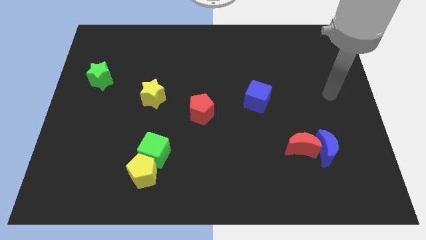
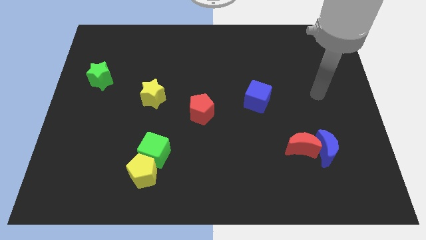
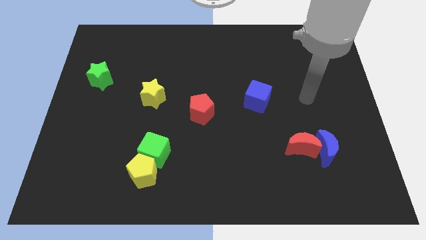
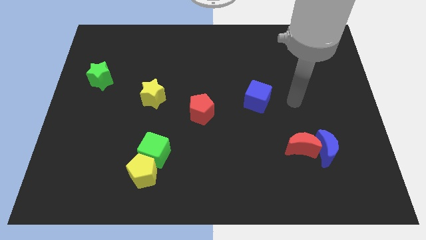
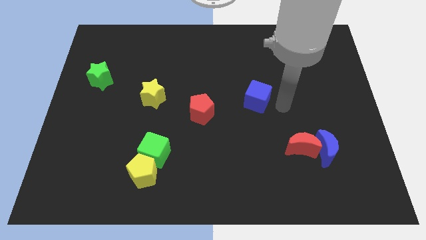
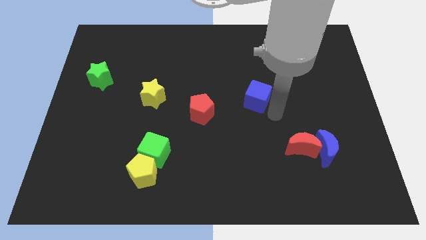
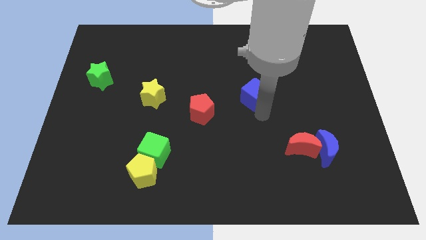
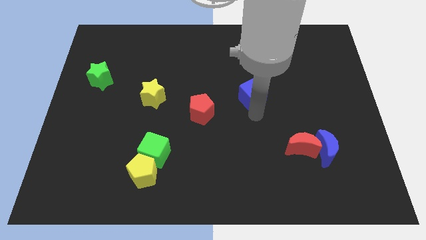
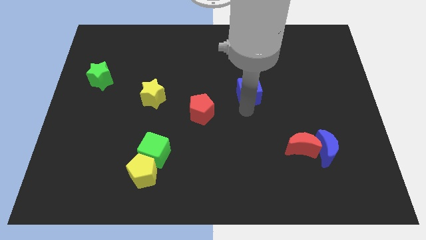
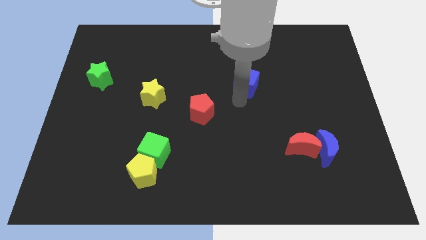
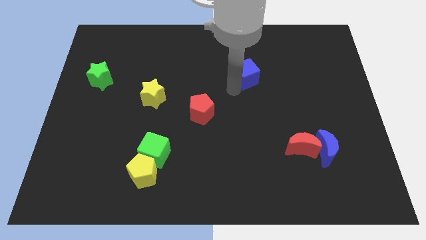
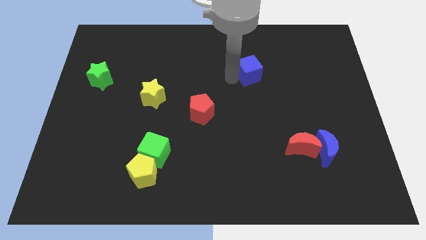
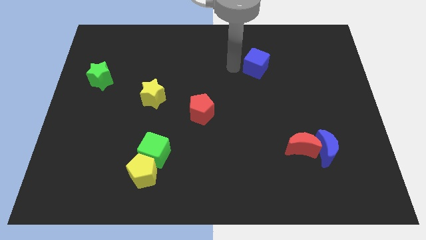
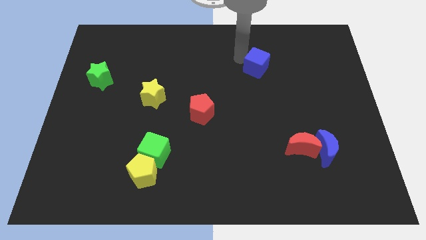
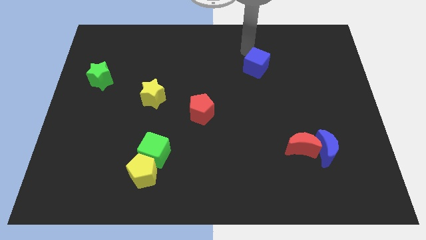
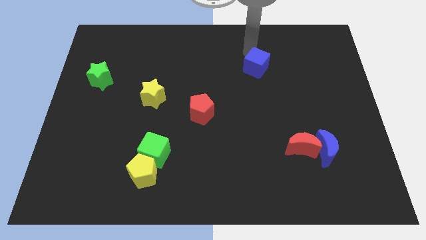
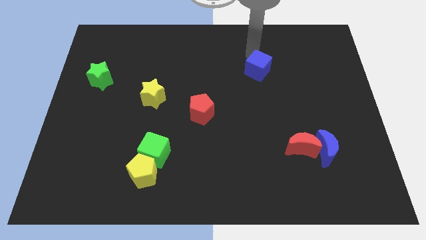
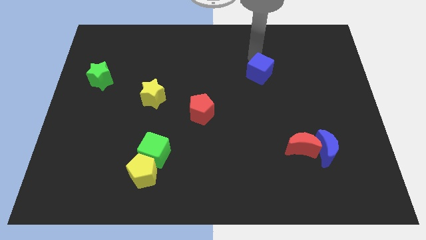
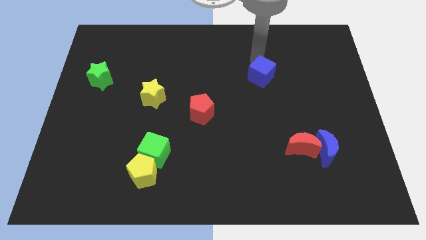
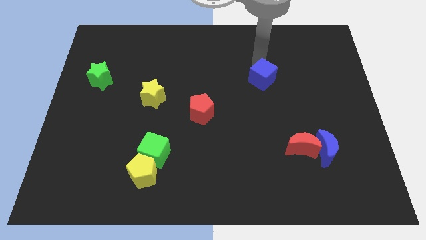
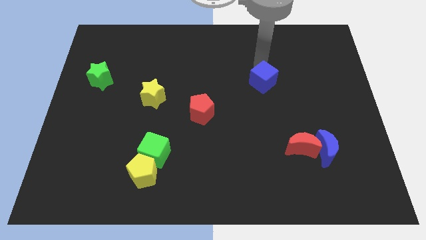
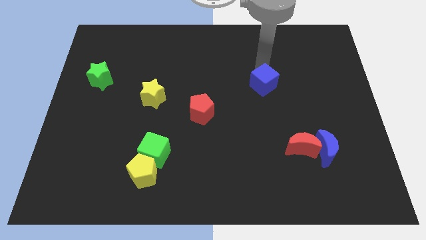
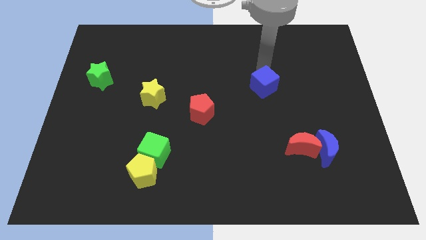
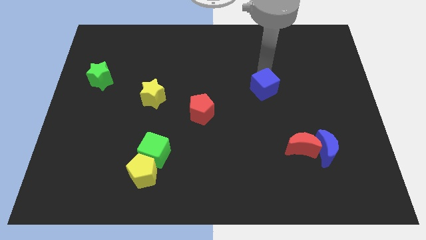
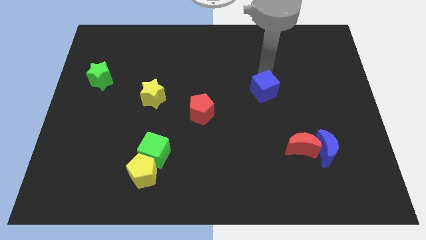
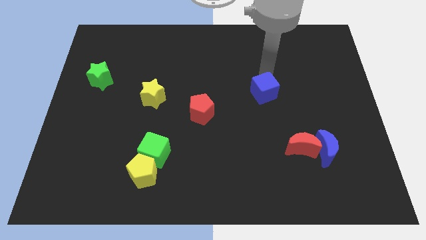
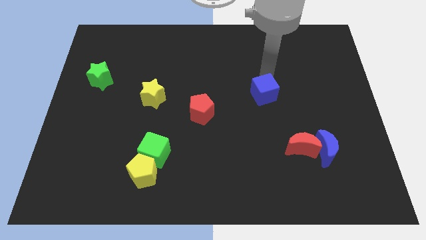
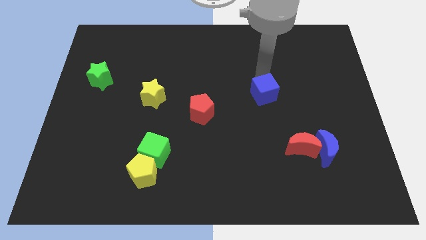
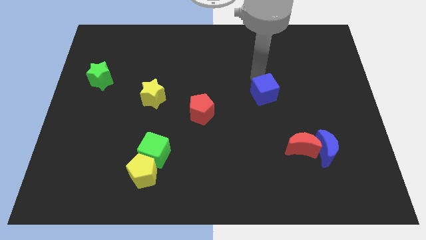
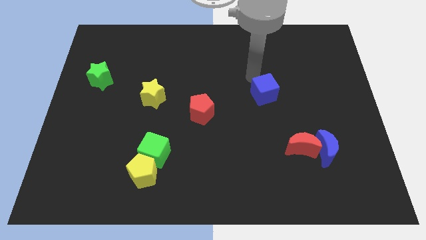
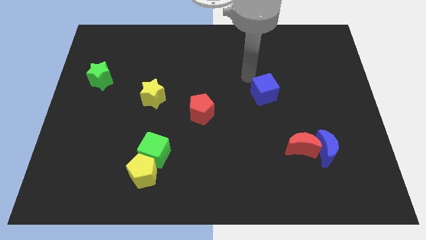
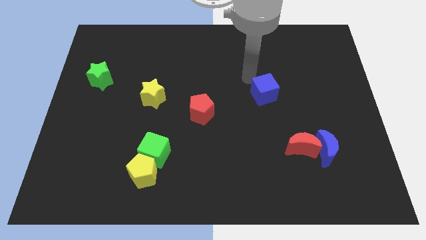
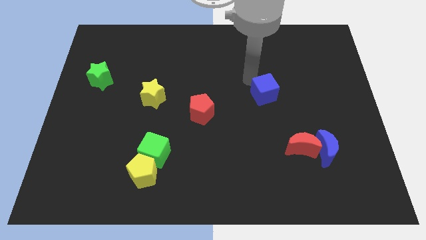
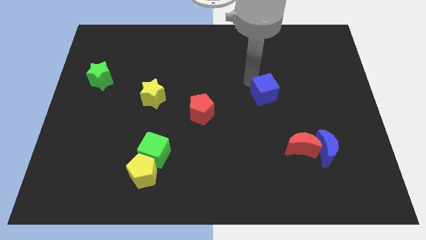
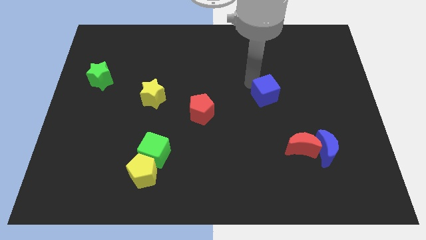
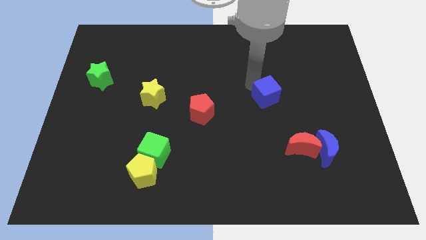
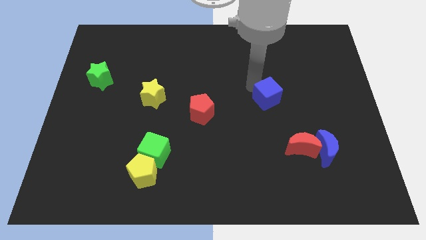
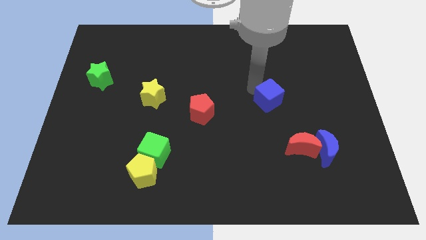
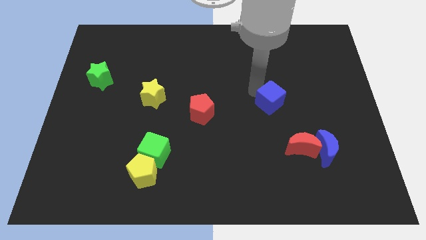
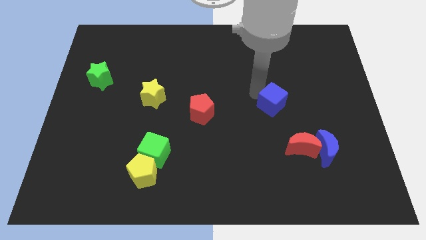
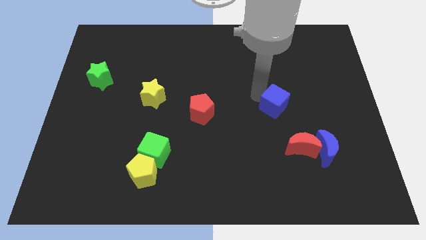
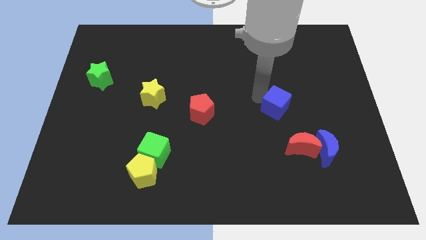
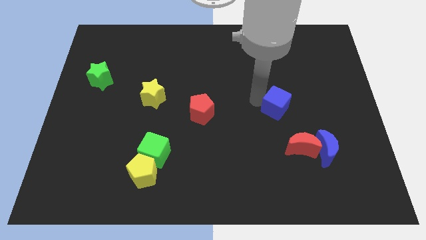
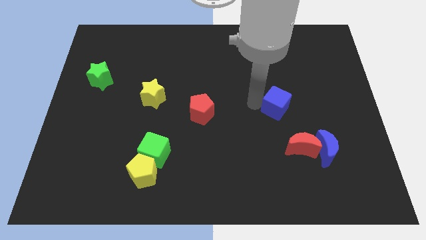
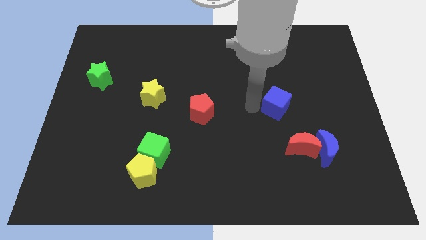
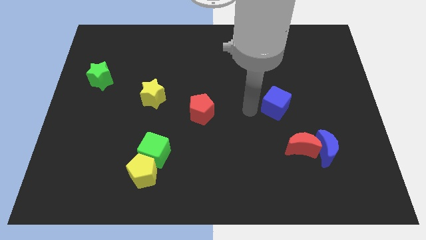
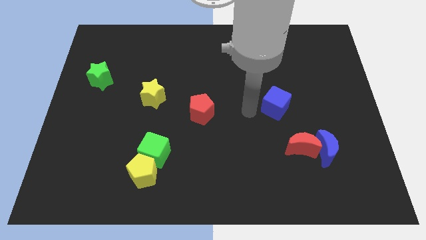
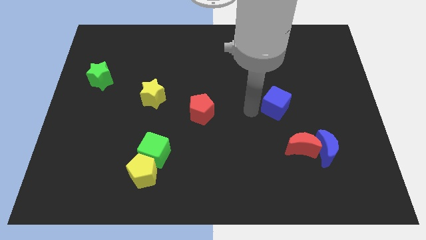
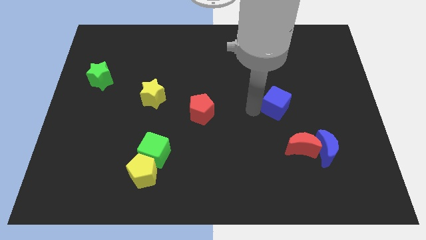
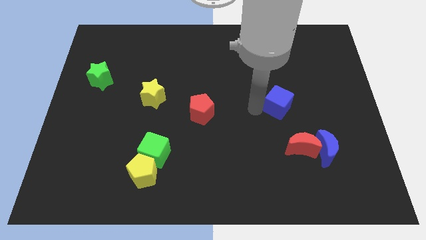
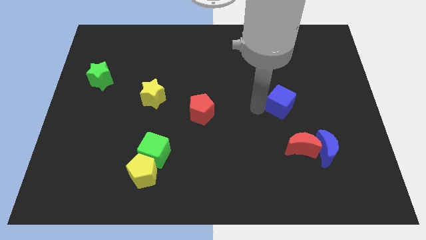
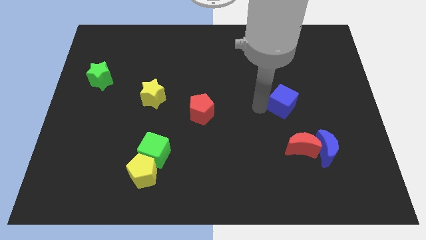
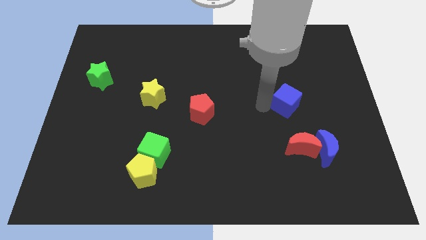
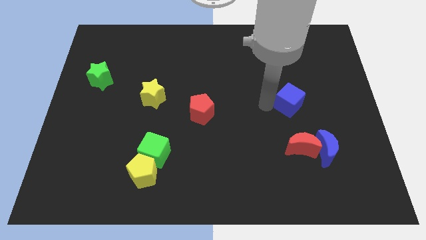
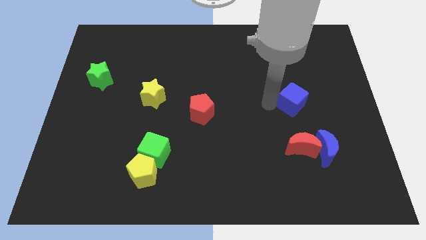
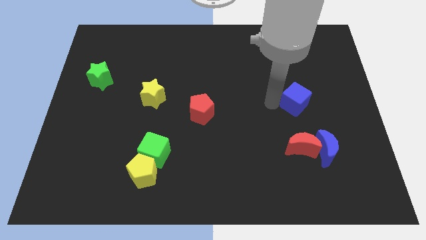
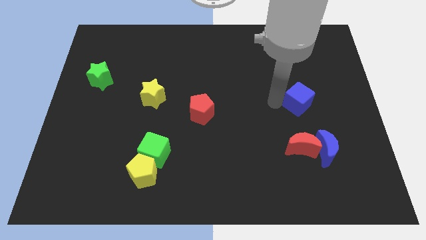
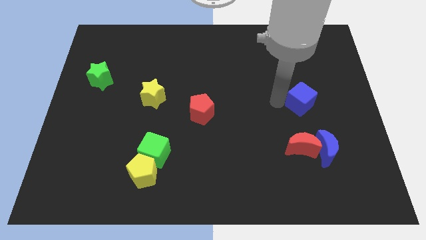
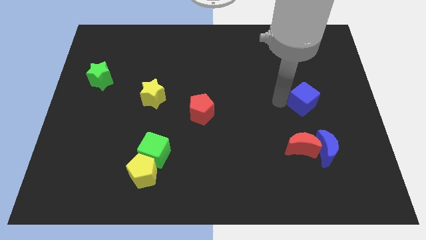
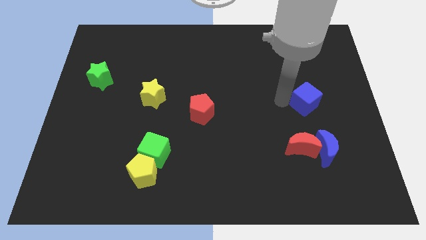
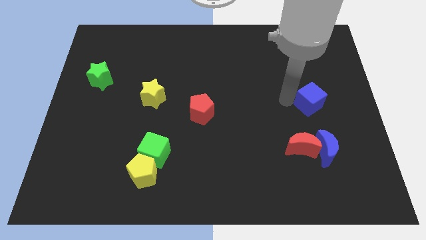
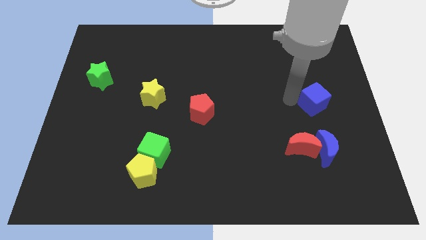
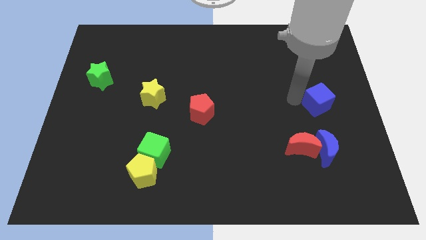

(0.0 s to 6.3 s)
put the blue cube to the right side of the board

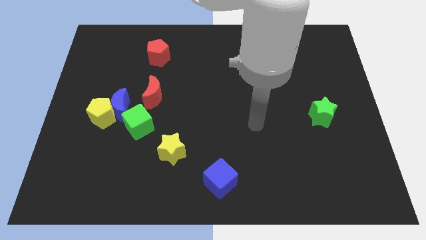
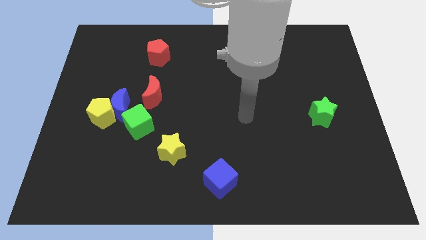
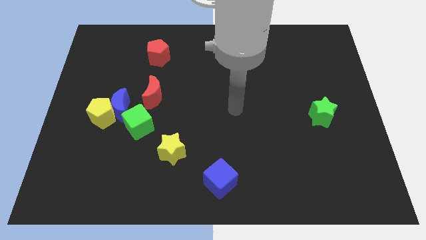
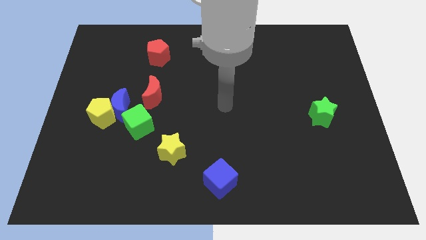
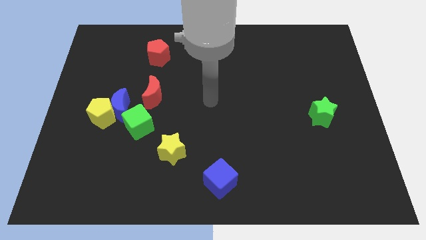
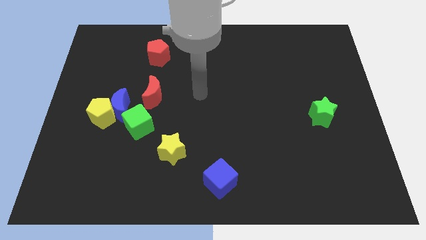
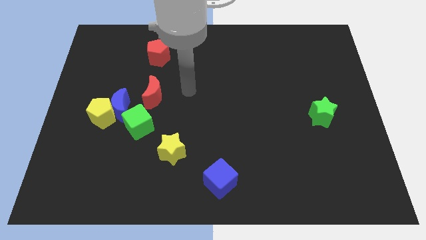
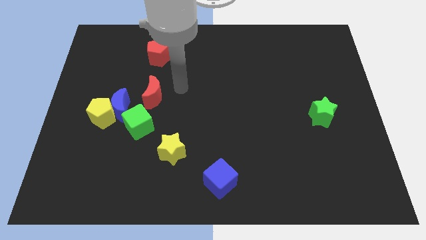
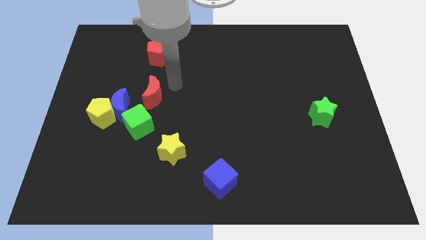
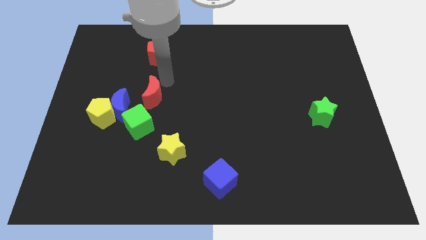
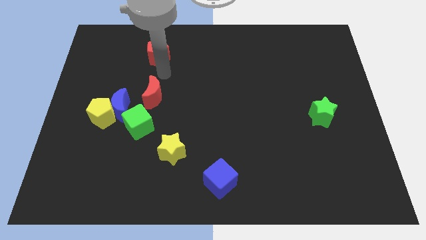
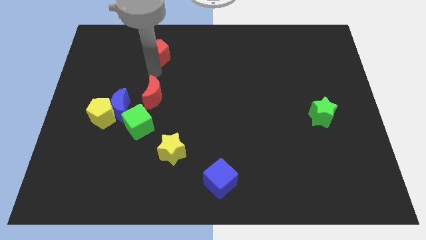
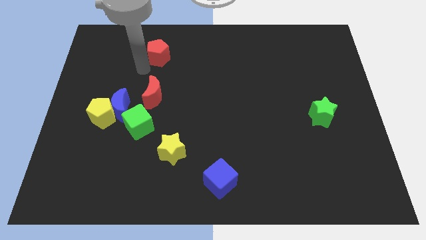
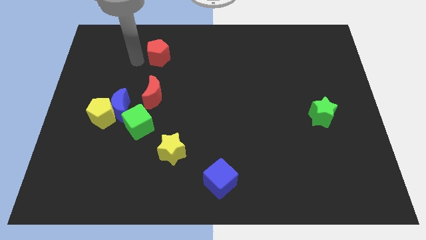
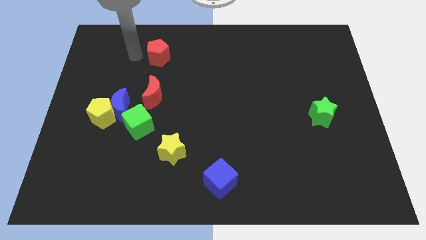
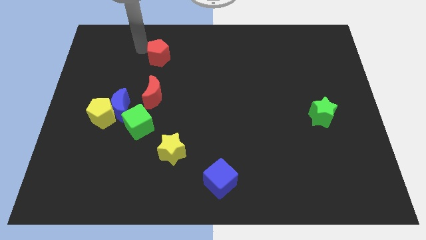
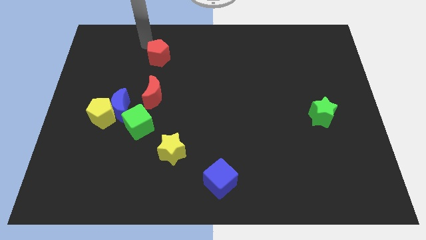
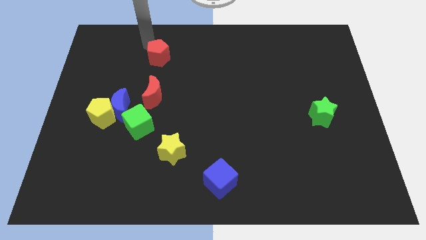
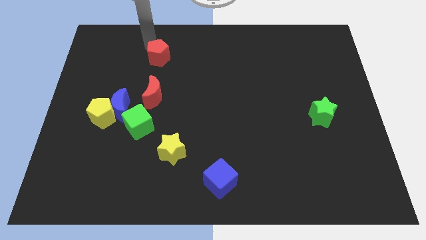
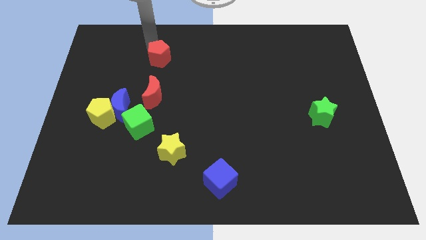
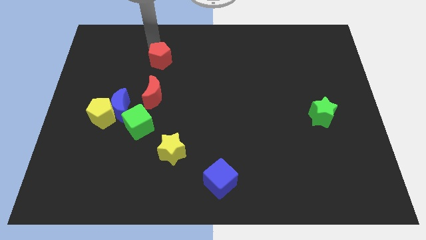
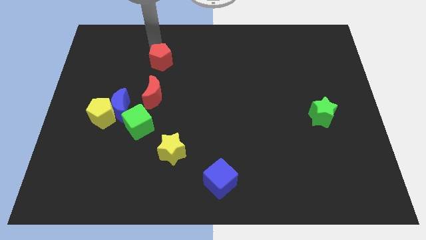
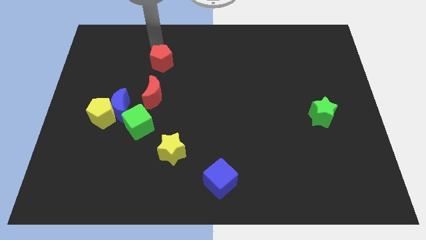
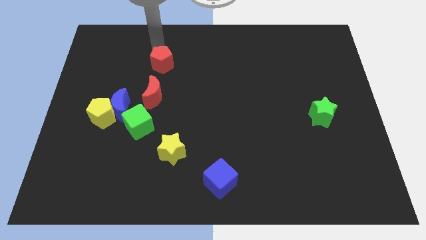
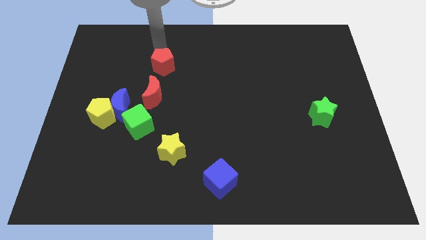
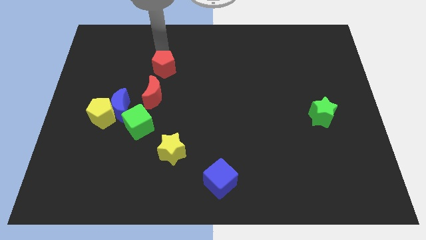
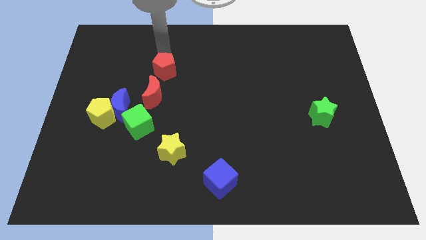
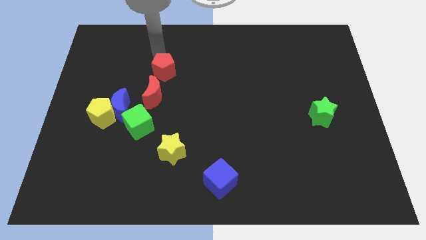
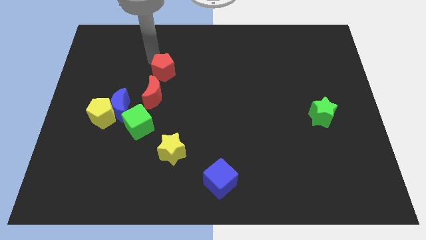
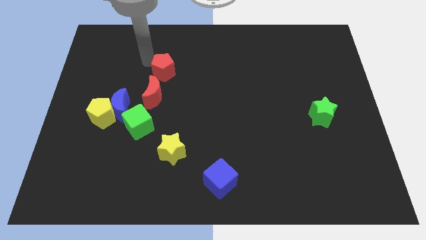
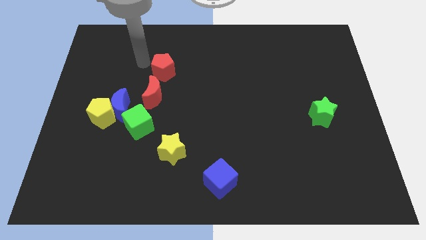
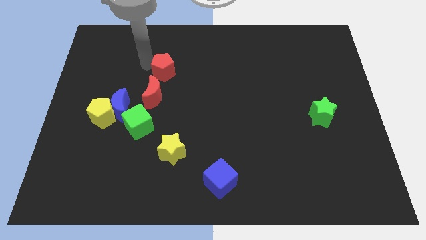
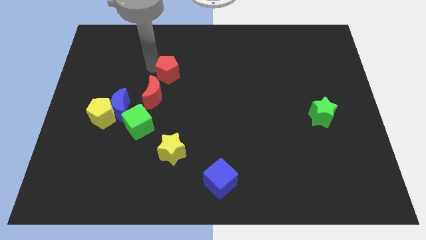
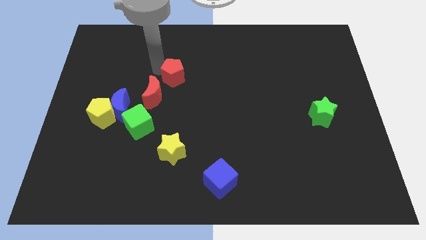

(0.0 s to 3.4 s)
put the red pentagon to the center
